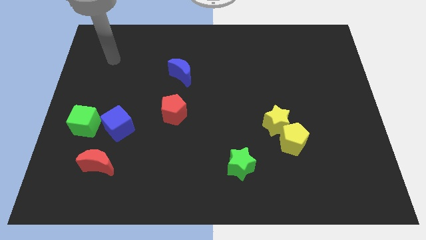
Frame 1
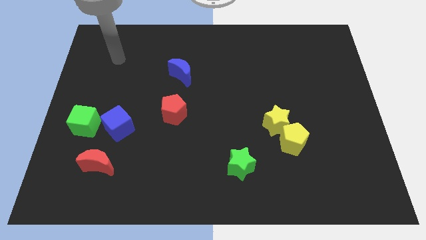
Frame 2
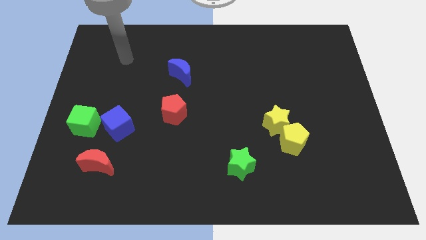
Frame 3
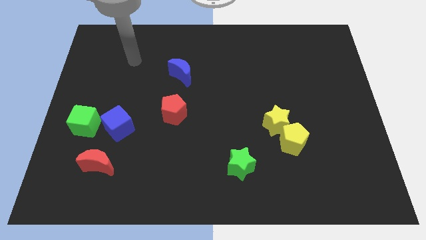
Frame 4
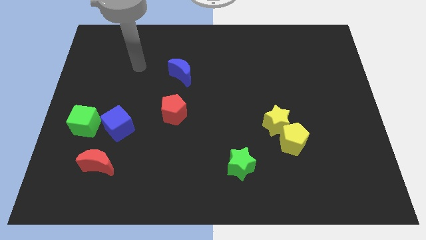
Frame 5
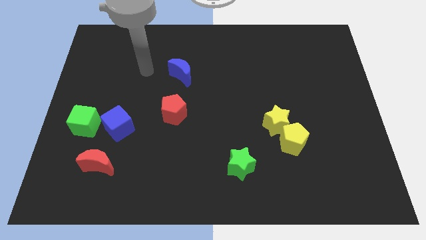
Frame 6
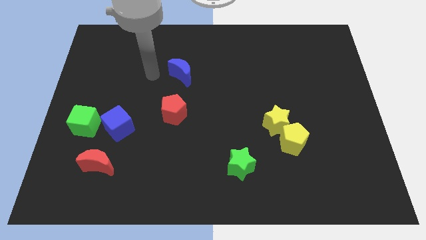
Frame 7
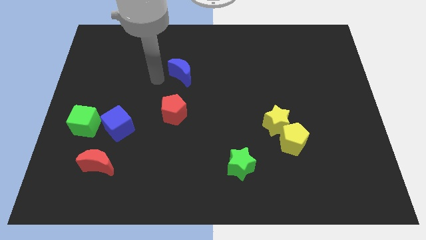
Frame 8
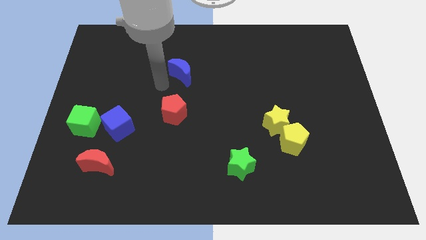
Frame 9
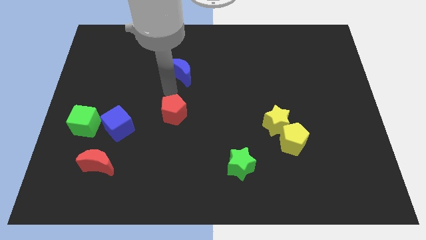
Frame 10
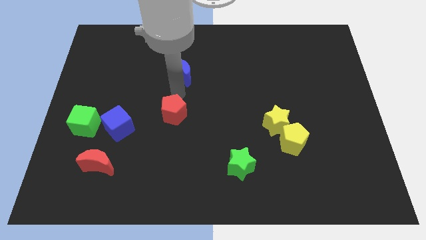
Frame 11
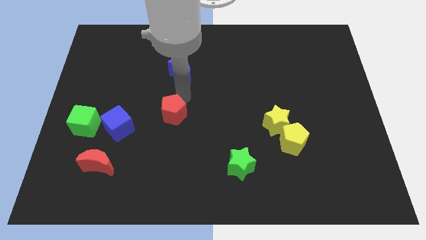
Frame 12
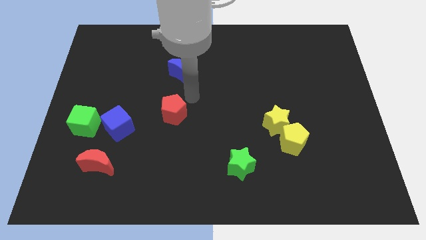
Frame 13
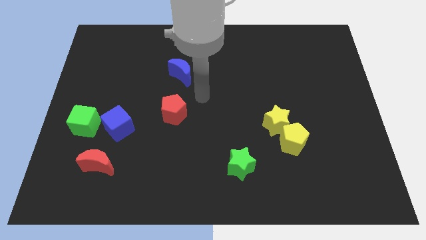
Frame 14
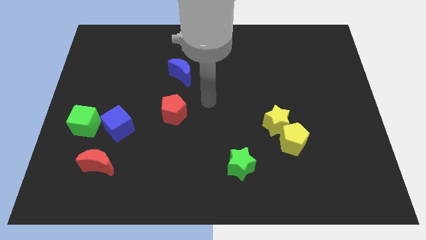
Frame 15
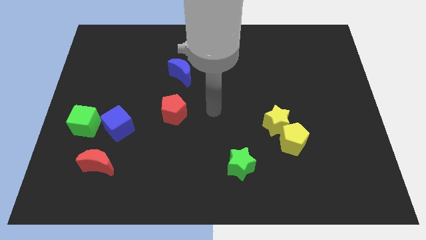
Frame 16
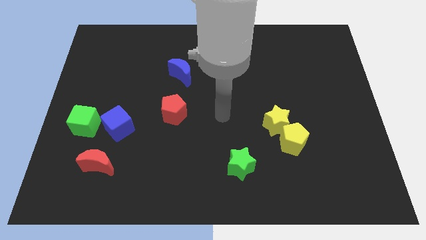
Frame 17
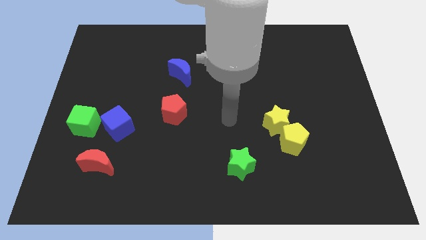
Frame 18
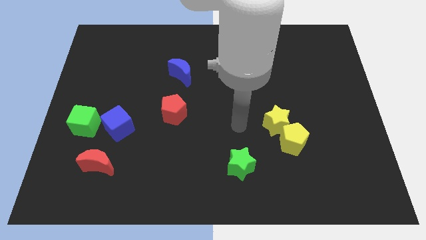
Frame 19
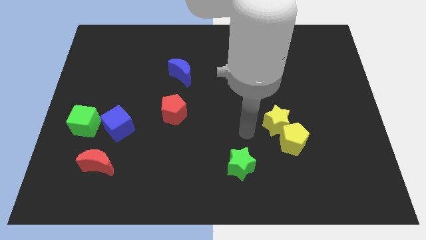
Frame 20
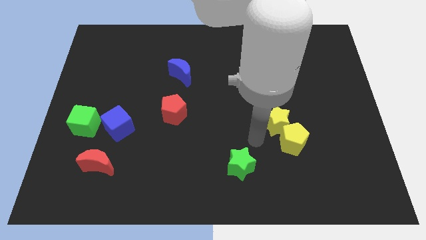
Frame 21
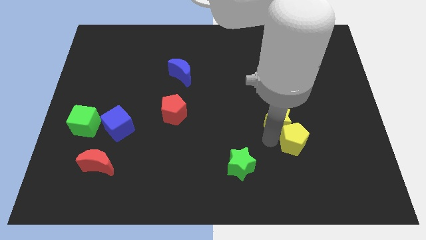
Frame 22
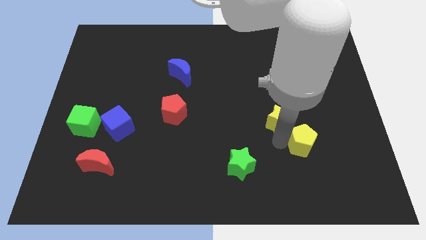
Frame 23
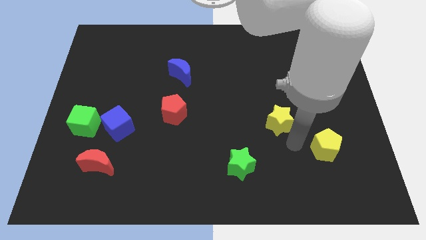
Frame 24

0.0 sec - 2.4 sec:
move the yellow star away from the yellow pentagon

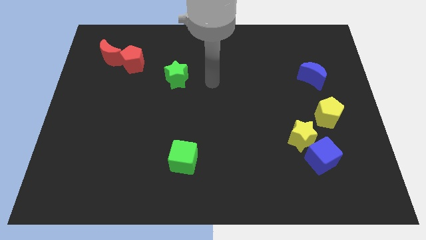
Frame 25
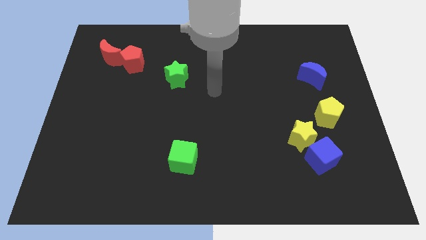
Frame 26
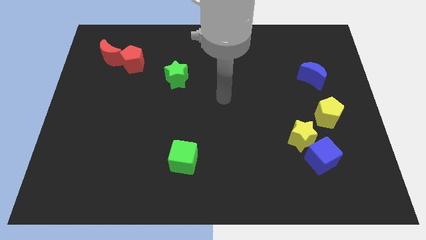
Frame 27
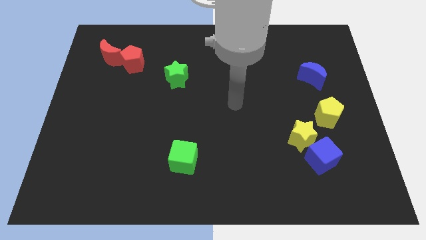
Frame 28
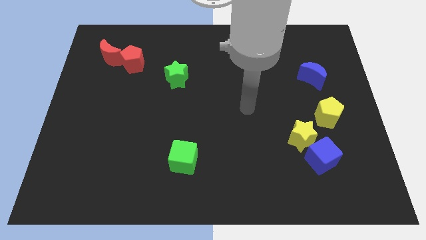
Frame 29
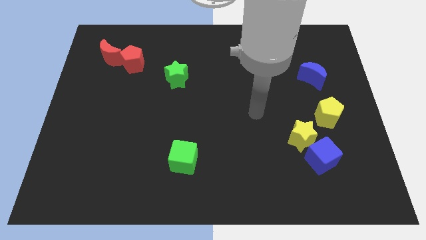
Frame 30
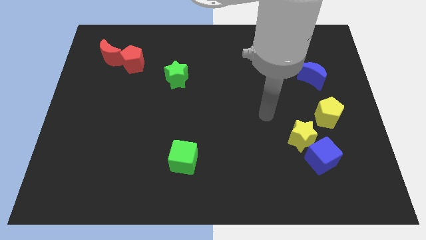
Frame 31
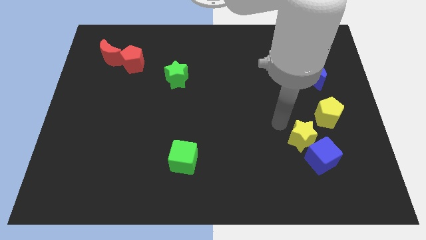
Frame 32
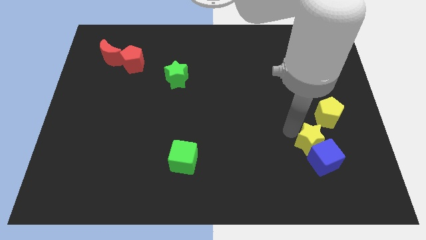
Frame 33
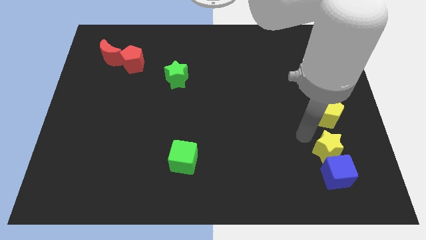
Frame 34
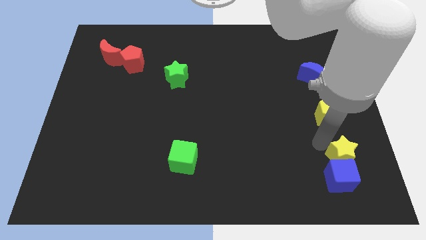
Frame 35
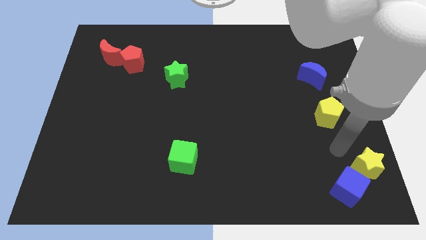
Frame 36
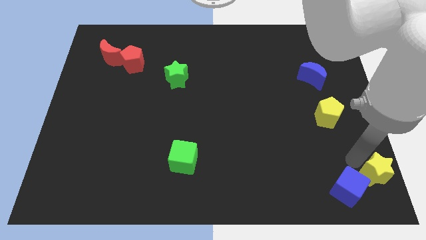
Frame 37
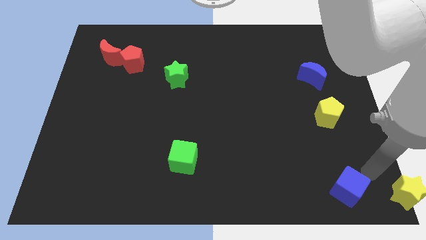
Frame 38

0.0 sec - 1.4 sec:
pull the blue cube apart from the yellow star

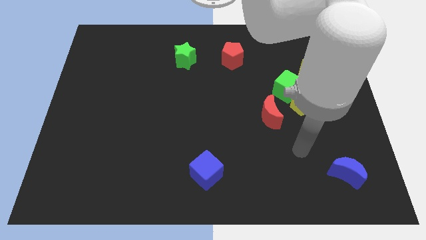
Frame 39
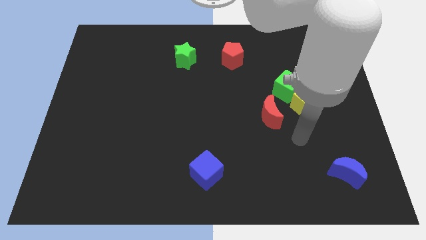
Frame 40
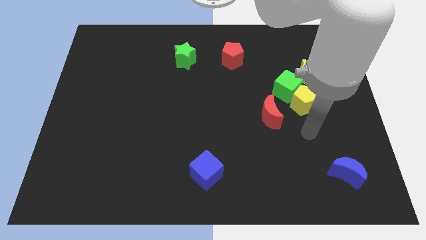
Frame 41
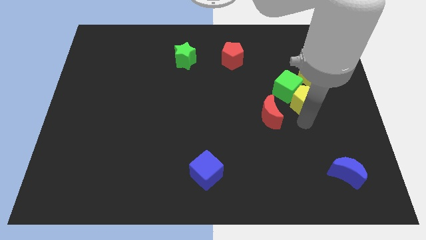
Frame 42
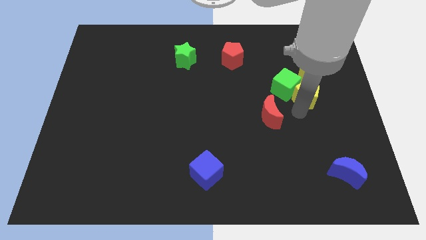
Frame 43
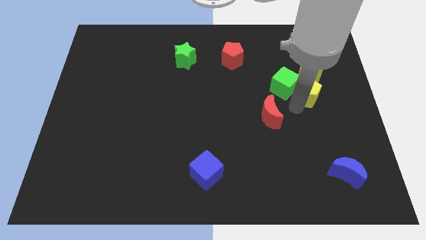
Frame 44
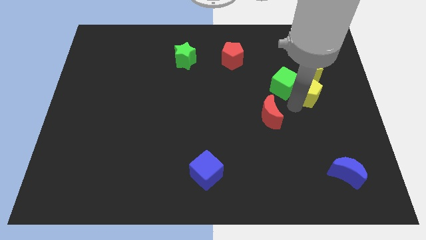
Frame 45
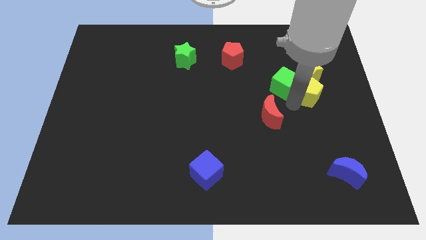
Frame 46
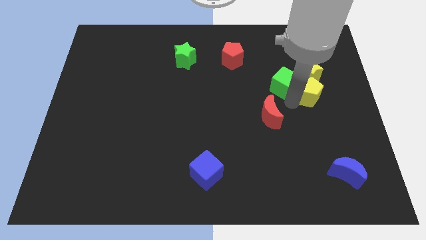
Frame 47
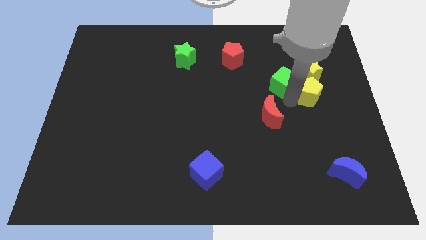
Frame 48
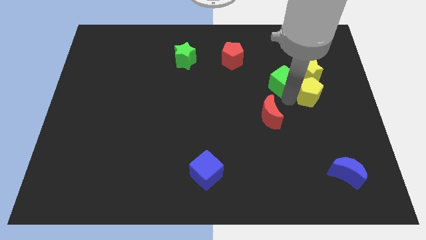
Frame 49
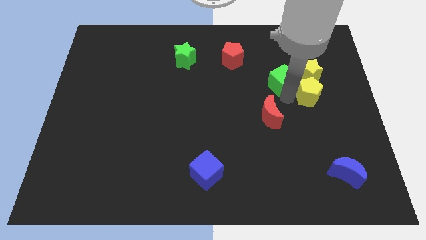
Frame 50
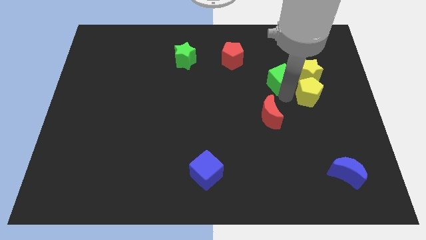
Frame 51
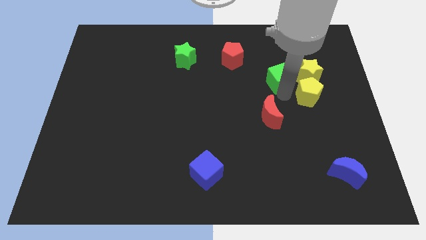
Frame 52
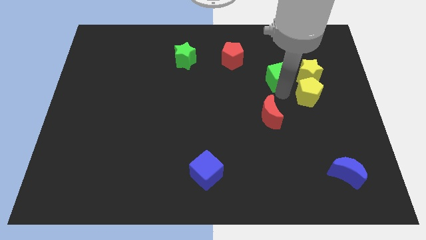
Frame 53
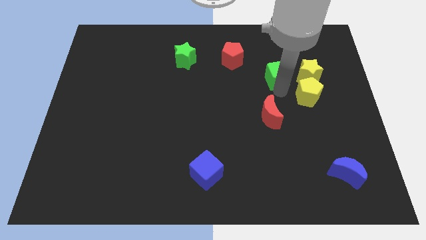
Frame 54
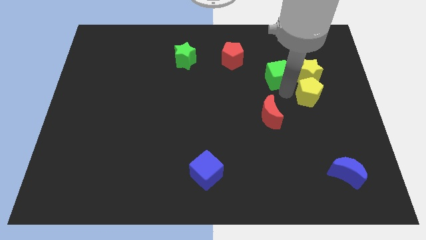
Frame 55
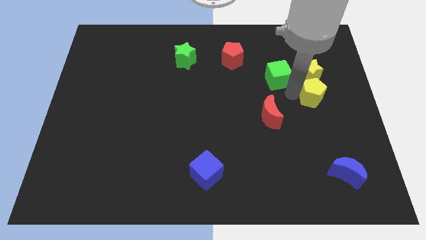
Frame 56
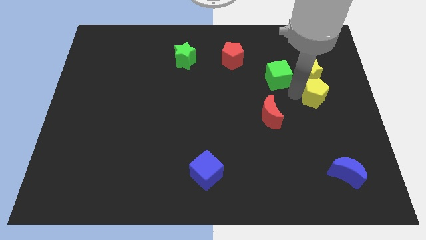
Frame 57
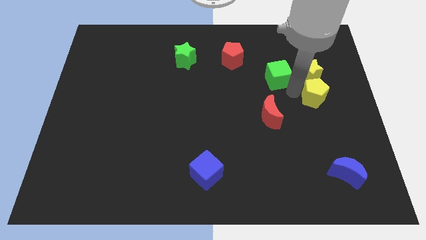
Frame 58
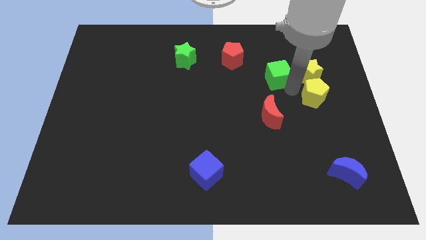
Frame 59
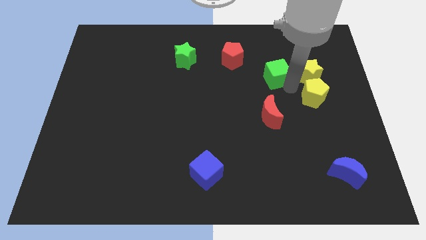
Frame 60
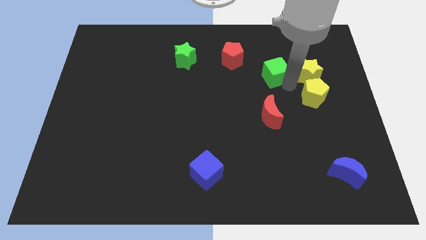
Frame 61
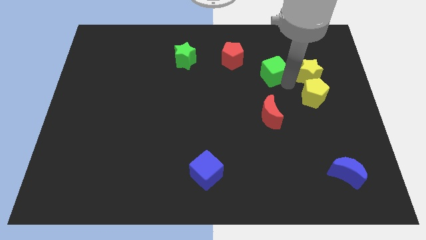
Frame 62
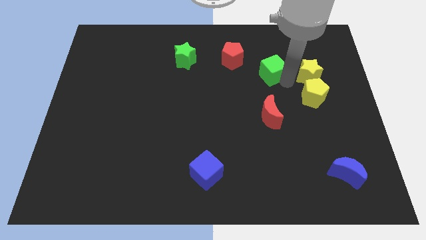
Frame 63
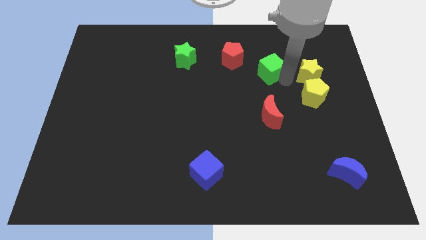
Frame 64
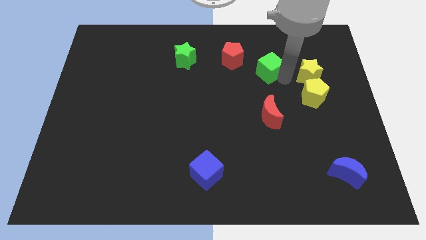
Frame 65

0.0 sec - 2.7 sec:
move the green cube away from the group of blocks

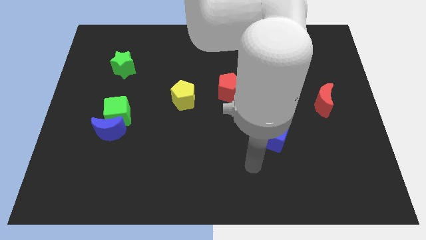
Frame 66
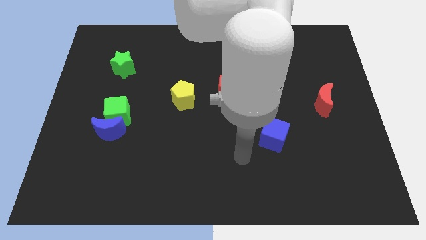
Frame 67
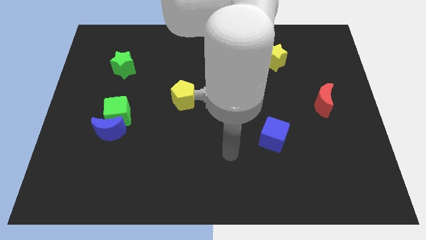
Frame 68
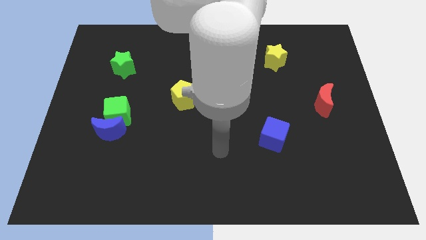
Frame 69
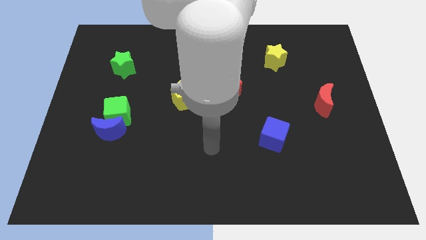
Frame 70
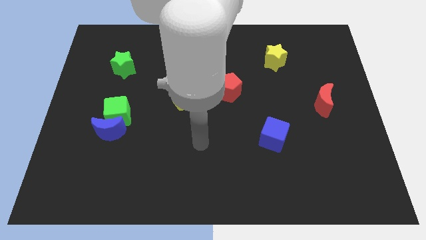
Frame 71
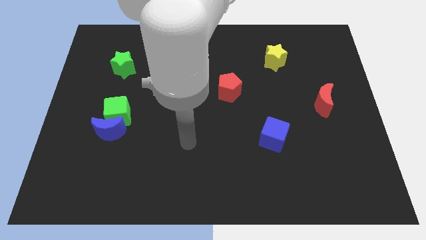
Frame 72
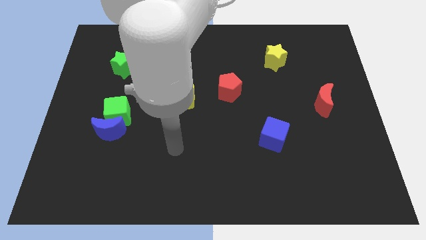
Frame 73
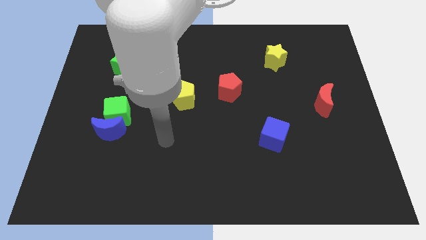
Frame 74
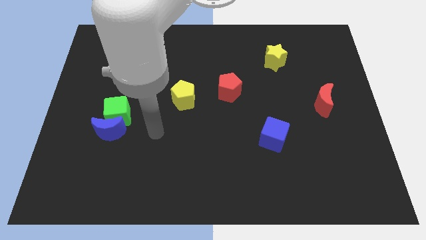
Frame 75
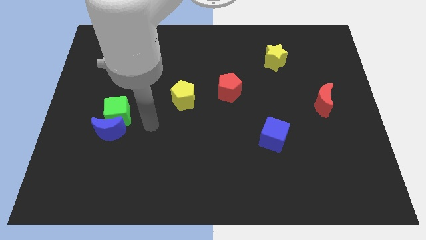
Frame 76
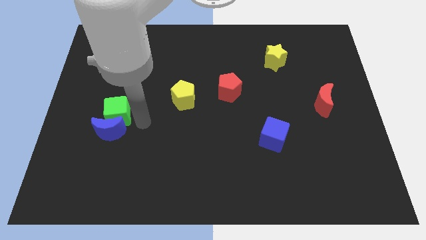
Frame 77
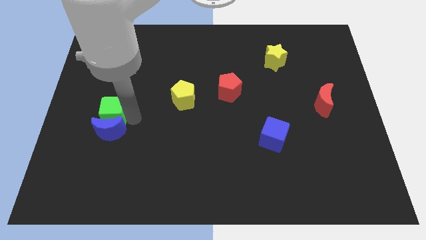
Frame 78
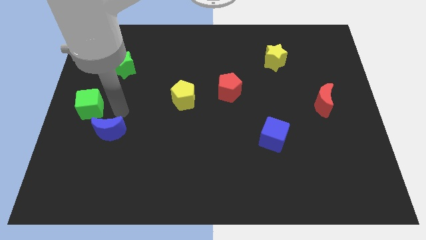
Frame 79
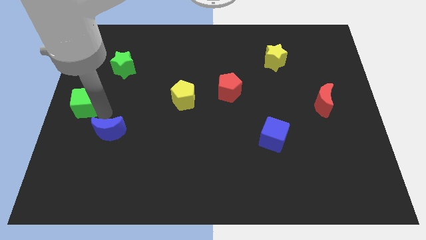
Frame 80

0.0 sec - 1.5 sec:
pull the blue moon apart from the green cube

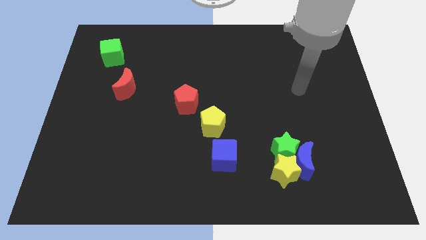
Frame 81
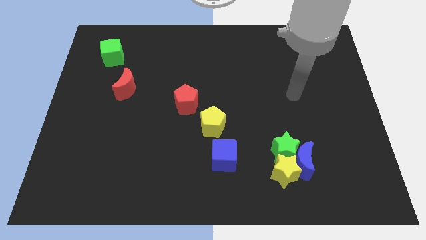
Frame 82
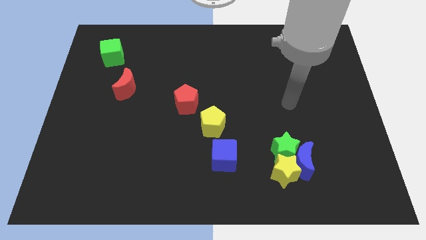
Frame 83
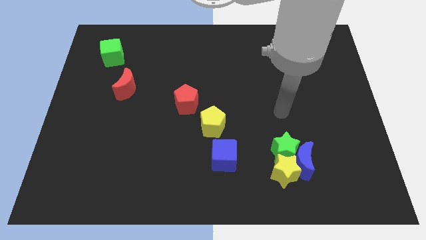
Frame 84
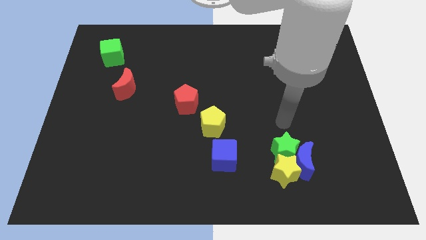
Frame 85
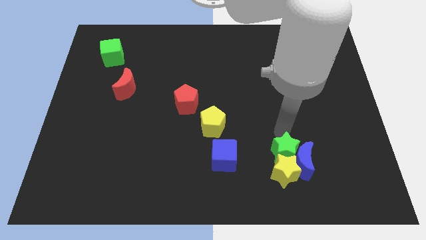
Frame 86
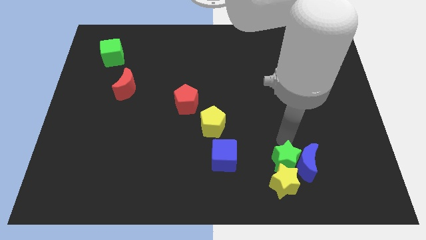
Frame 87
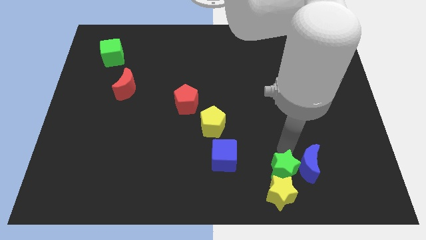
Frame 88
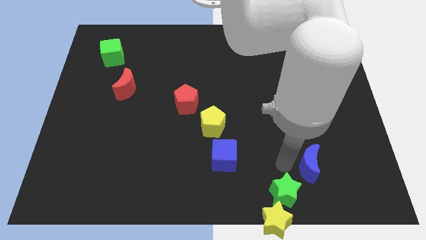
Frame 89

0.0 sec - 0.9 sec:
pull the blue moon apart from the green star and yellow star

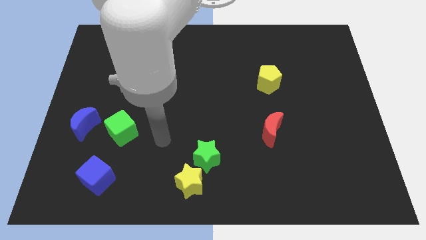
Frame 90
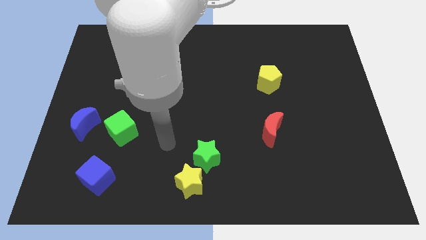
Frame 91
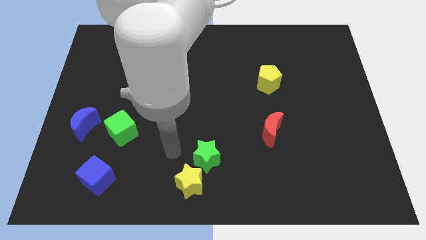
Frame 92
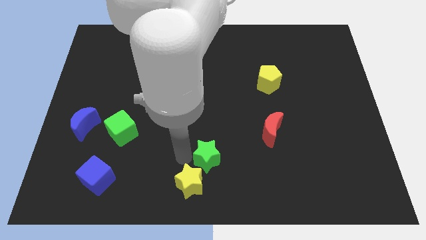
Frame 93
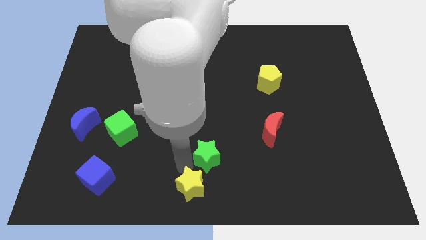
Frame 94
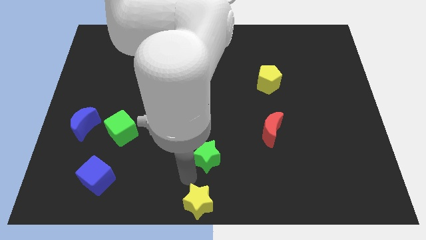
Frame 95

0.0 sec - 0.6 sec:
separate the green star from the yellow star
